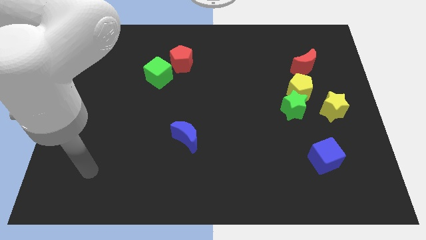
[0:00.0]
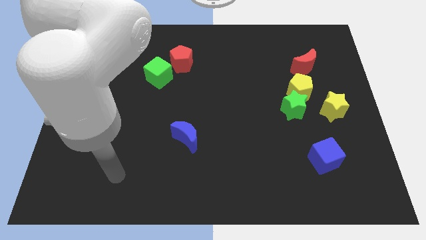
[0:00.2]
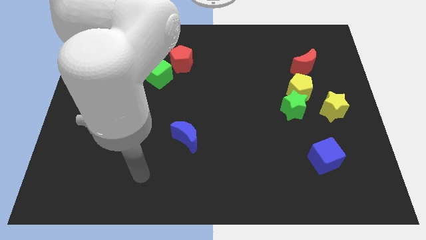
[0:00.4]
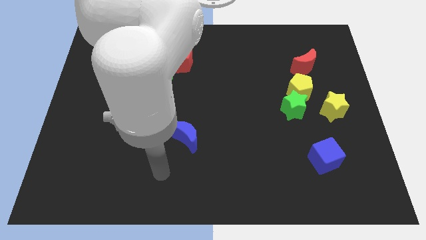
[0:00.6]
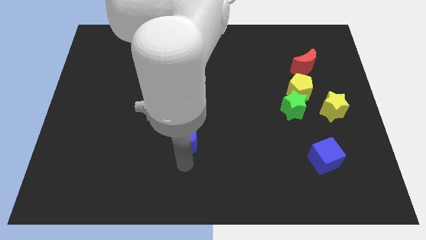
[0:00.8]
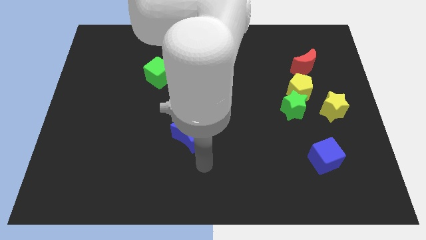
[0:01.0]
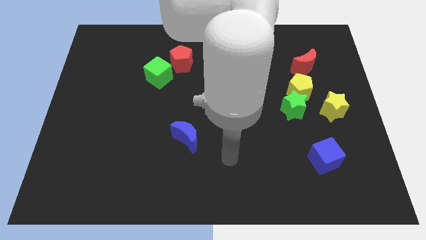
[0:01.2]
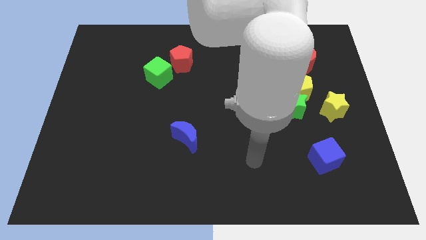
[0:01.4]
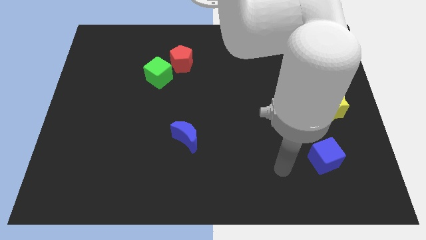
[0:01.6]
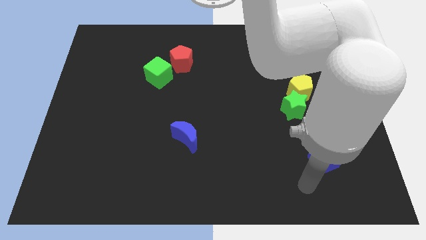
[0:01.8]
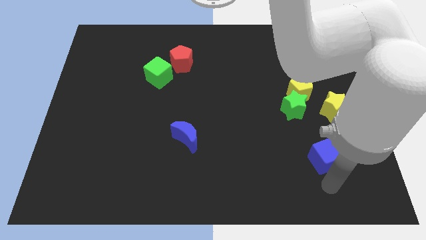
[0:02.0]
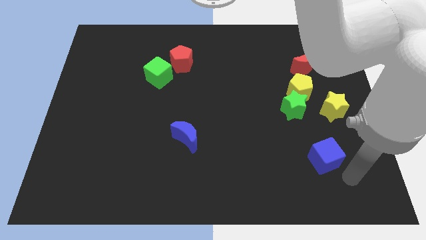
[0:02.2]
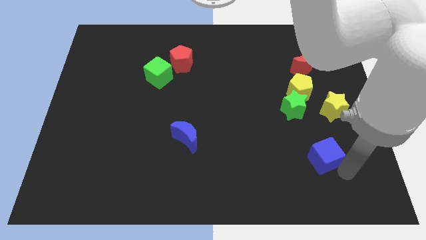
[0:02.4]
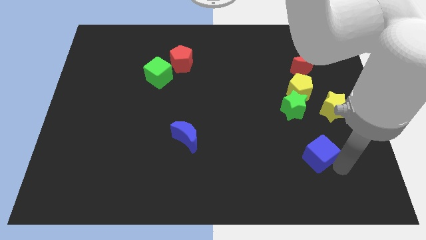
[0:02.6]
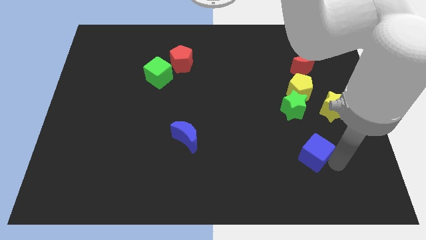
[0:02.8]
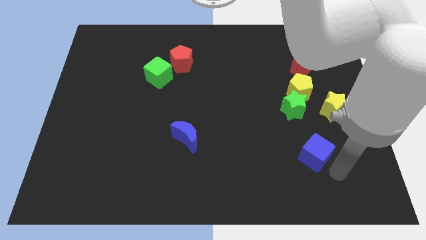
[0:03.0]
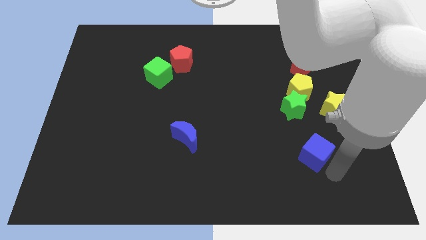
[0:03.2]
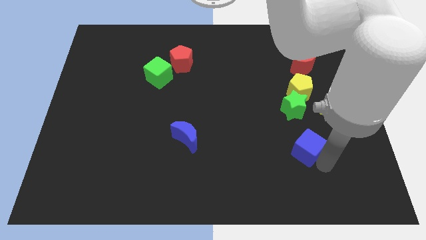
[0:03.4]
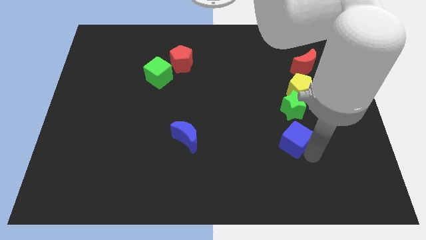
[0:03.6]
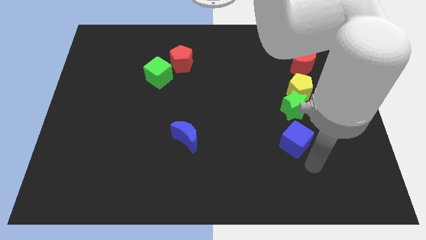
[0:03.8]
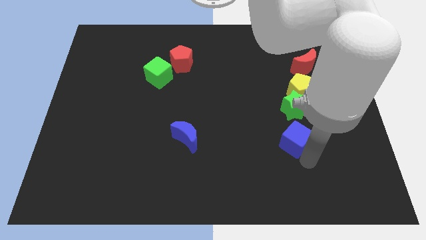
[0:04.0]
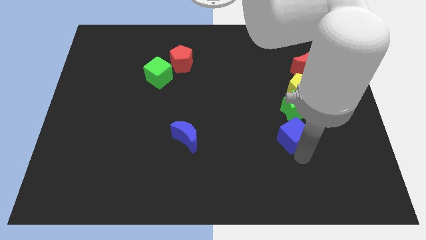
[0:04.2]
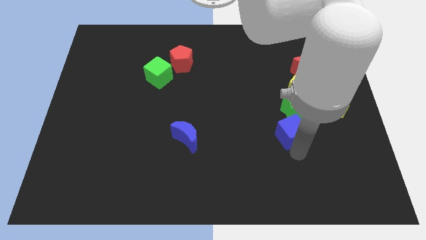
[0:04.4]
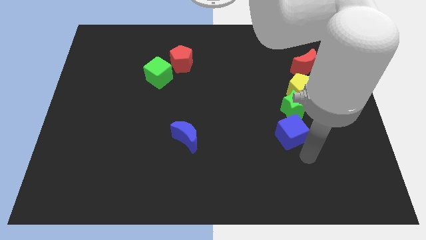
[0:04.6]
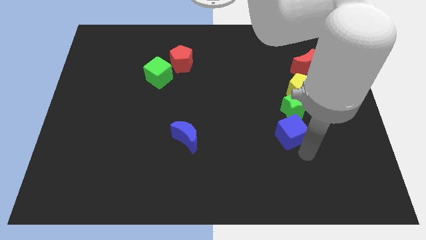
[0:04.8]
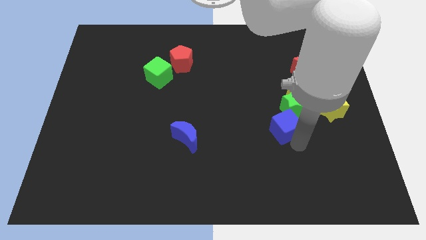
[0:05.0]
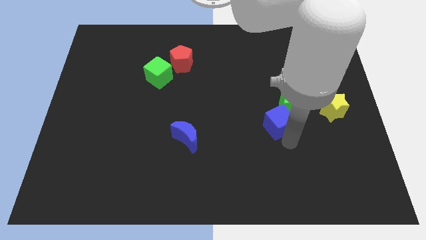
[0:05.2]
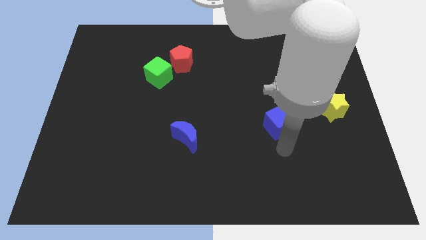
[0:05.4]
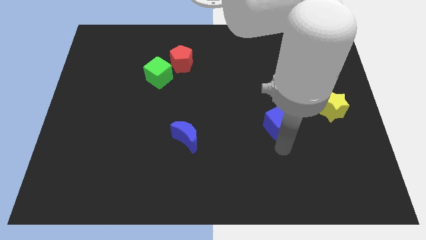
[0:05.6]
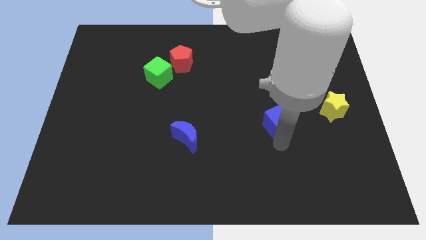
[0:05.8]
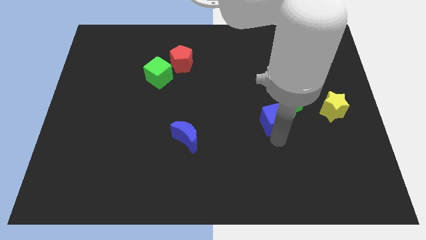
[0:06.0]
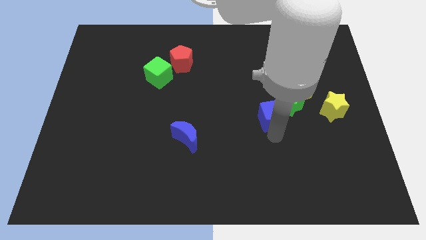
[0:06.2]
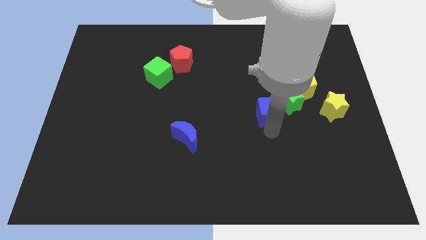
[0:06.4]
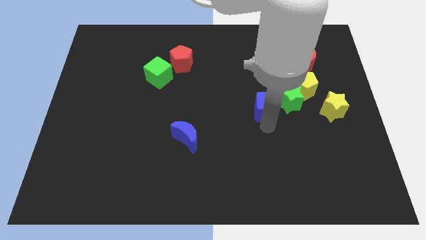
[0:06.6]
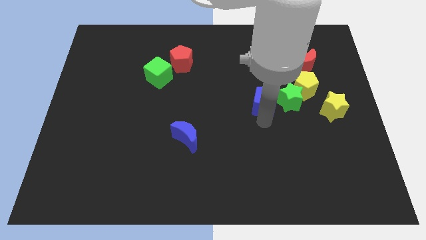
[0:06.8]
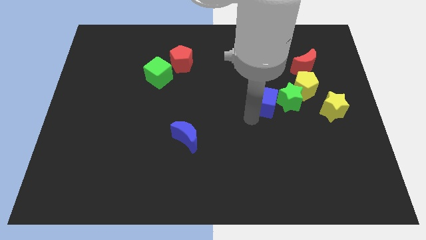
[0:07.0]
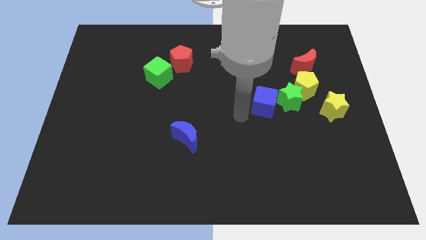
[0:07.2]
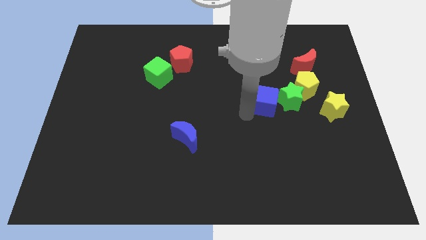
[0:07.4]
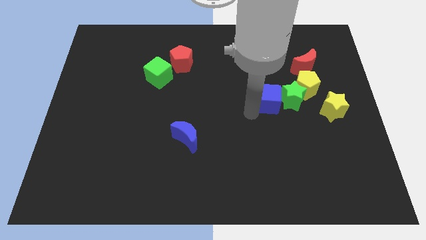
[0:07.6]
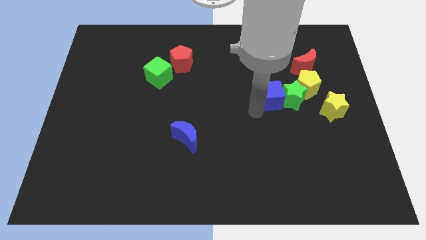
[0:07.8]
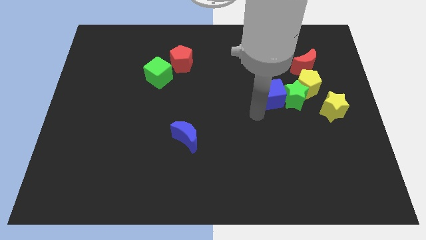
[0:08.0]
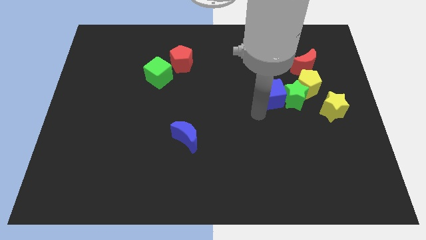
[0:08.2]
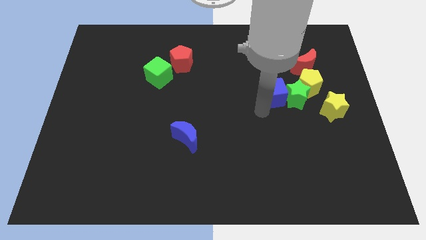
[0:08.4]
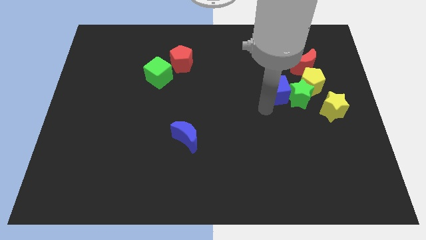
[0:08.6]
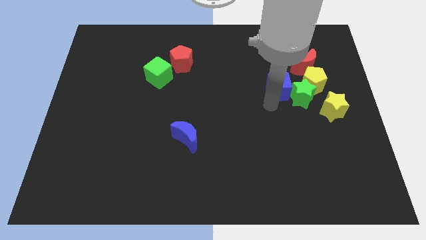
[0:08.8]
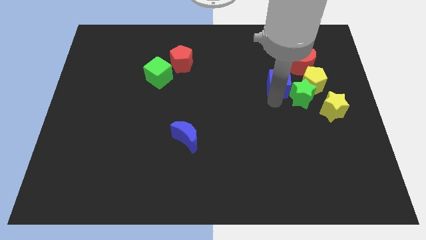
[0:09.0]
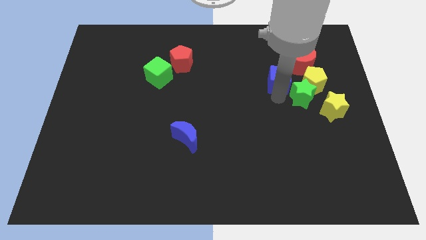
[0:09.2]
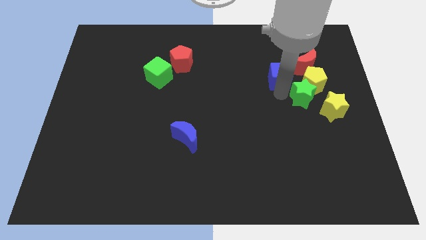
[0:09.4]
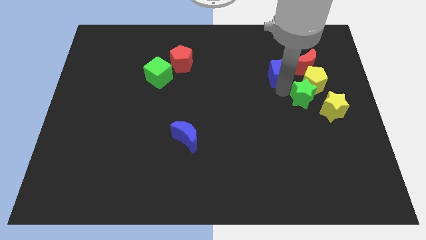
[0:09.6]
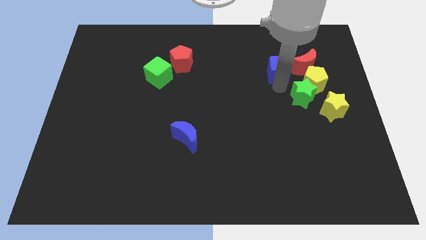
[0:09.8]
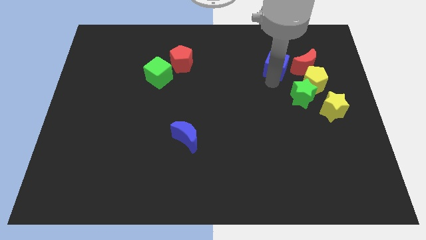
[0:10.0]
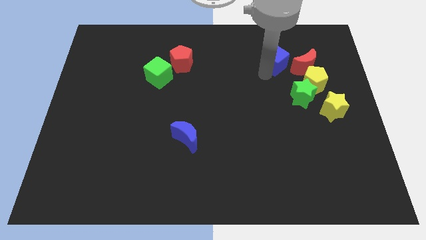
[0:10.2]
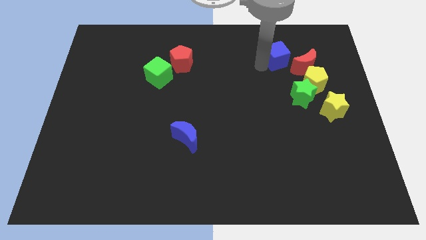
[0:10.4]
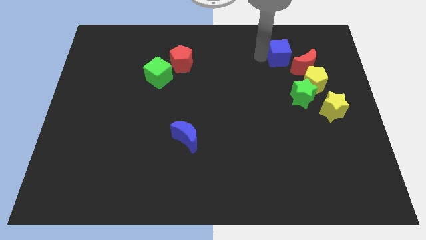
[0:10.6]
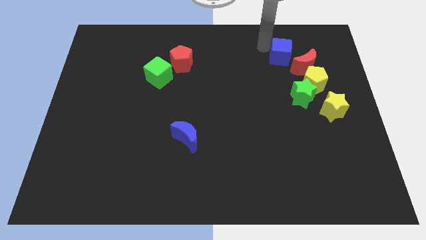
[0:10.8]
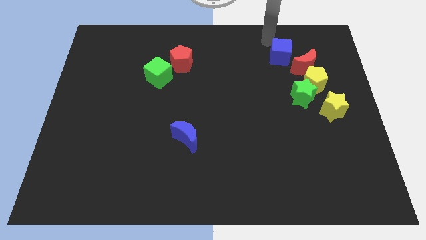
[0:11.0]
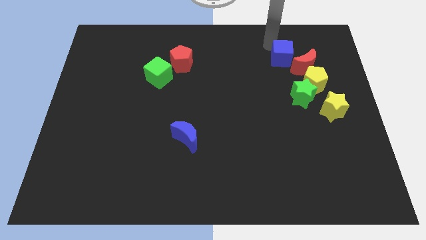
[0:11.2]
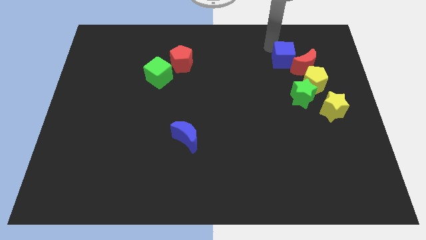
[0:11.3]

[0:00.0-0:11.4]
slide the blue cube towards the red moon
